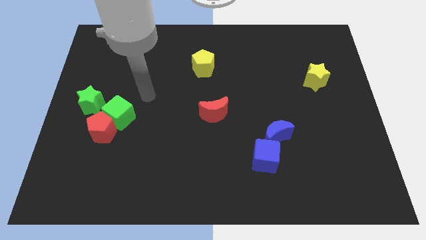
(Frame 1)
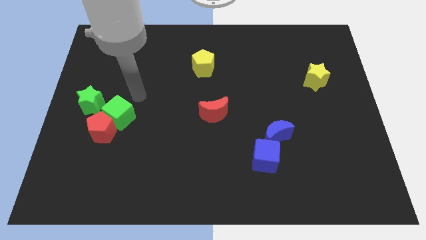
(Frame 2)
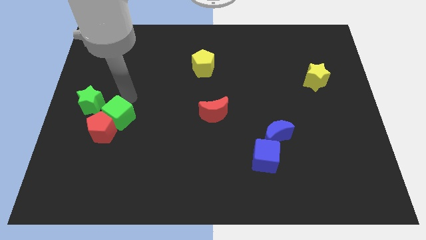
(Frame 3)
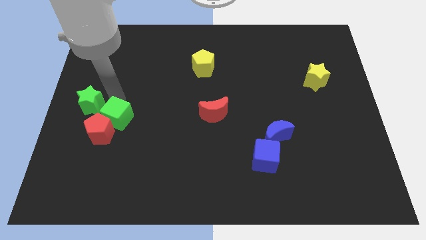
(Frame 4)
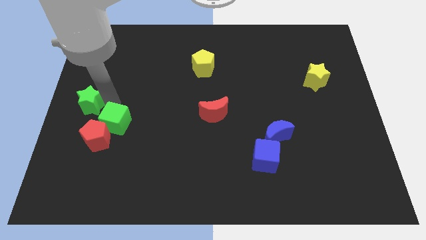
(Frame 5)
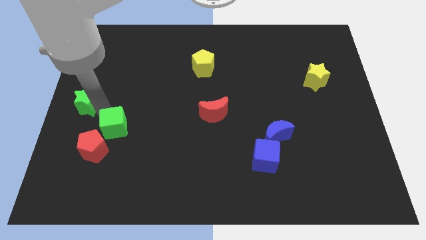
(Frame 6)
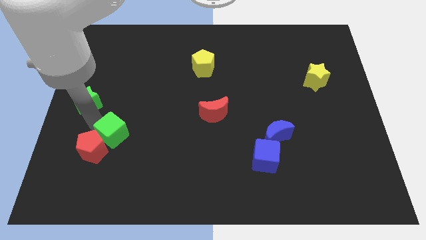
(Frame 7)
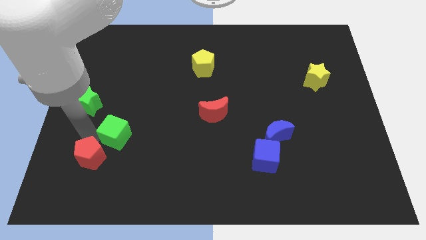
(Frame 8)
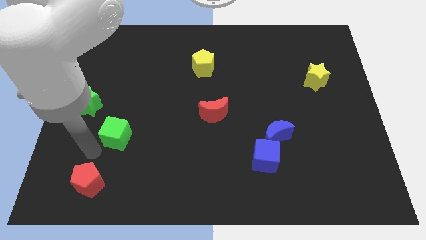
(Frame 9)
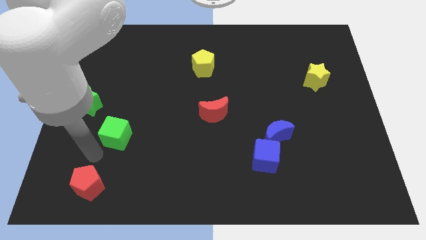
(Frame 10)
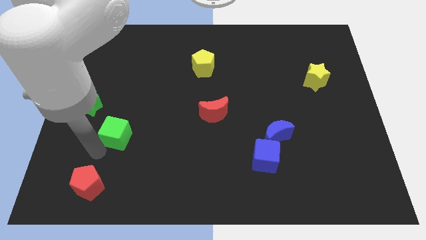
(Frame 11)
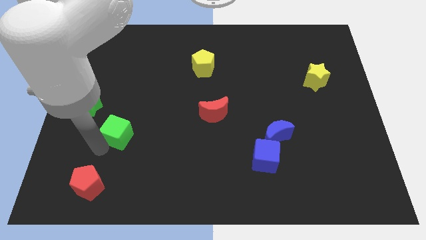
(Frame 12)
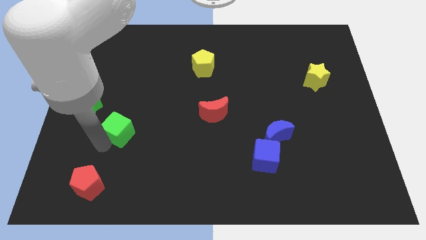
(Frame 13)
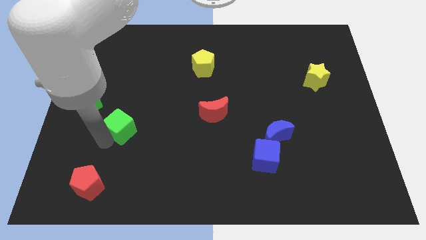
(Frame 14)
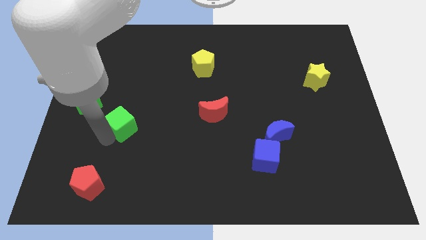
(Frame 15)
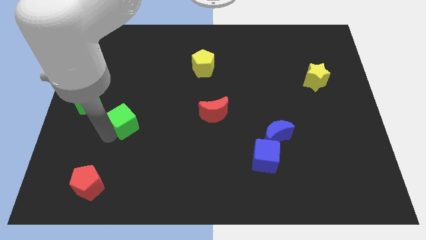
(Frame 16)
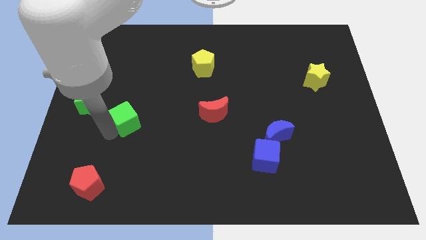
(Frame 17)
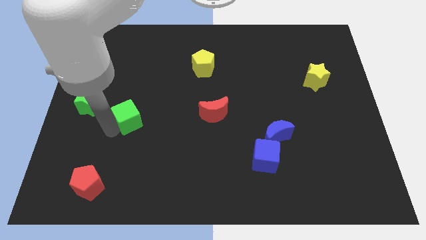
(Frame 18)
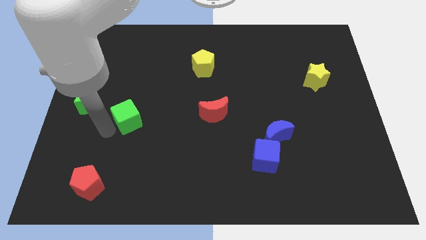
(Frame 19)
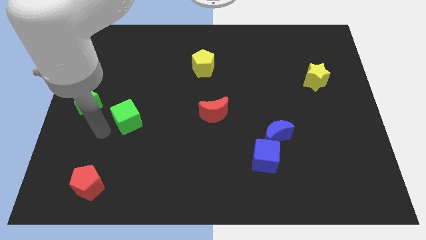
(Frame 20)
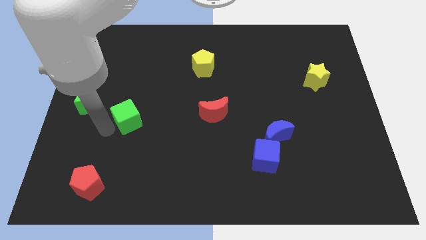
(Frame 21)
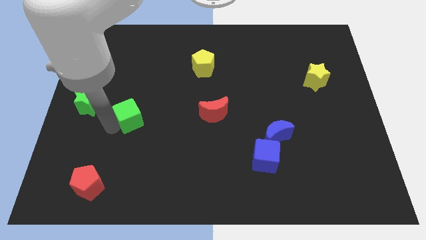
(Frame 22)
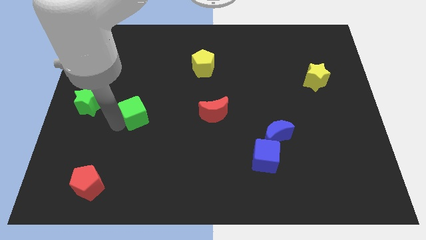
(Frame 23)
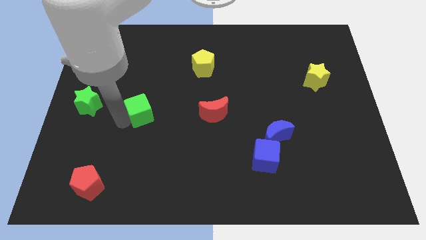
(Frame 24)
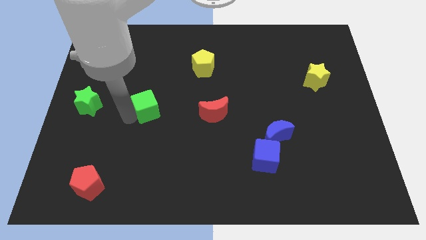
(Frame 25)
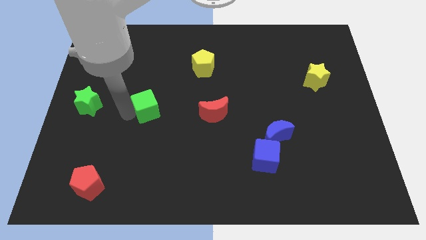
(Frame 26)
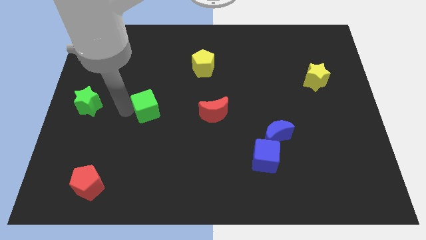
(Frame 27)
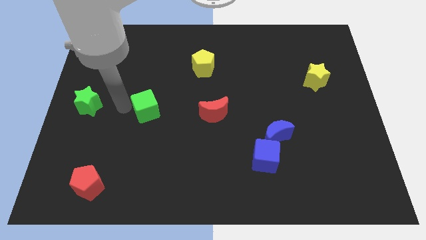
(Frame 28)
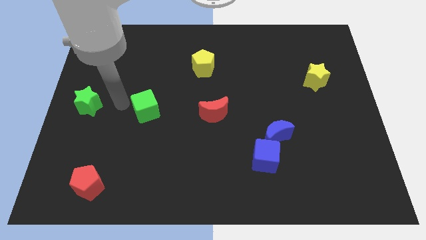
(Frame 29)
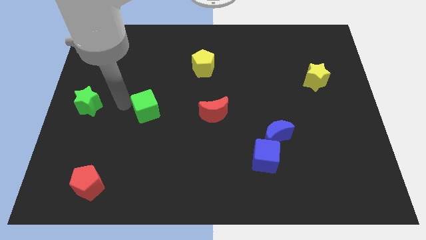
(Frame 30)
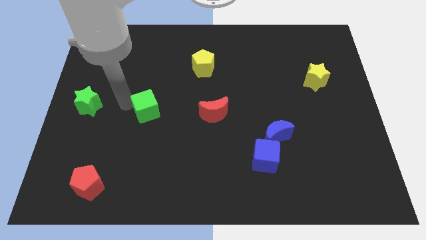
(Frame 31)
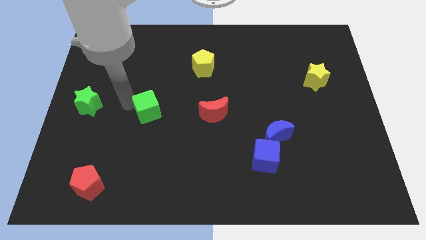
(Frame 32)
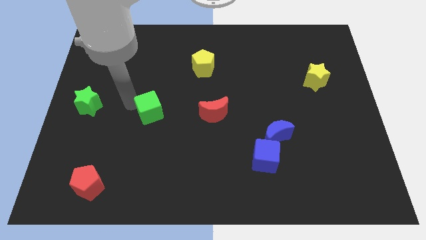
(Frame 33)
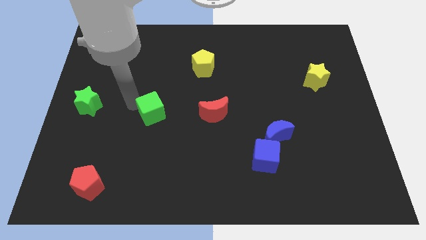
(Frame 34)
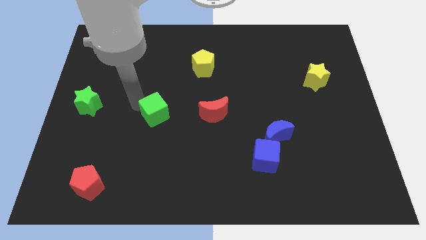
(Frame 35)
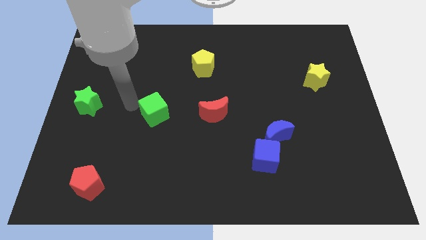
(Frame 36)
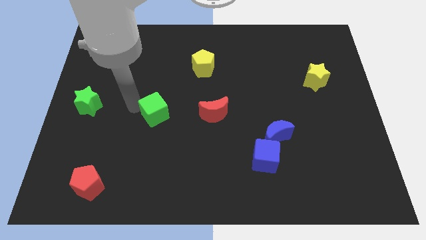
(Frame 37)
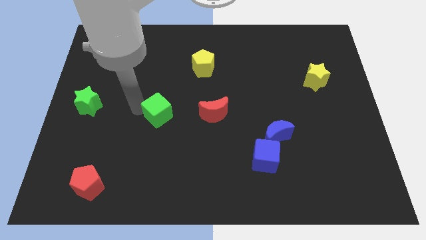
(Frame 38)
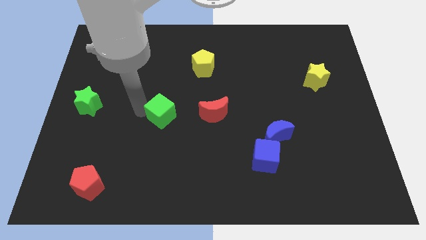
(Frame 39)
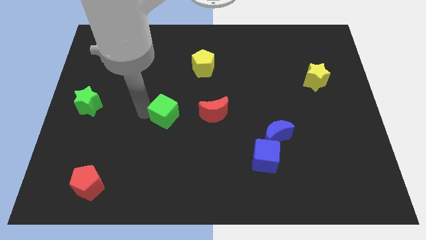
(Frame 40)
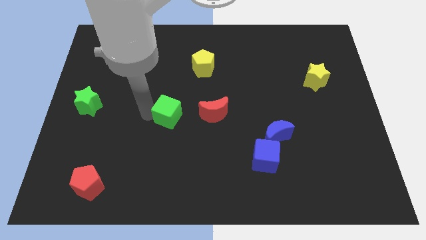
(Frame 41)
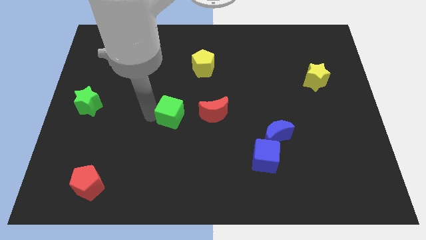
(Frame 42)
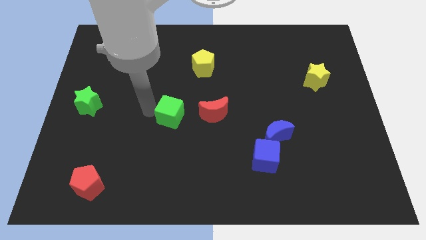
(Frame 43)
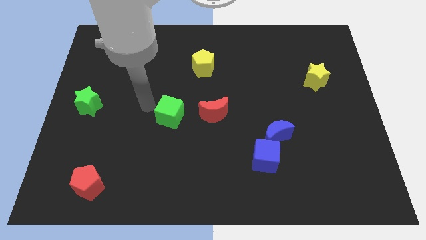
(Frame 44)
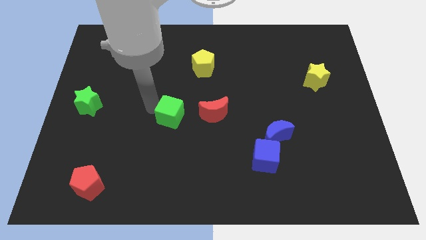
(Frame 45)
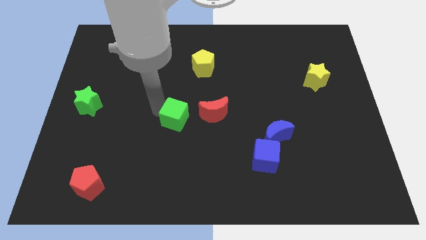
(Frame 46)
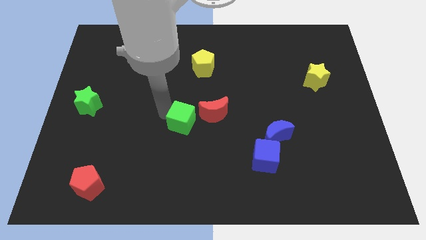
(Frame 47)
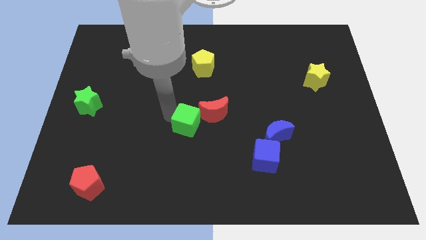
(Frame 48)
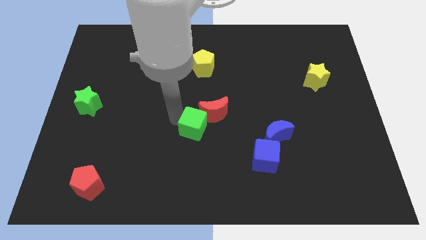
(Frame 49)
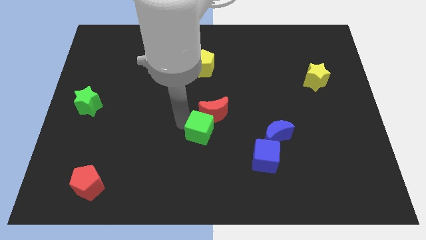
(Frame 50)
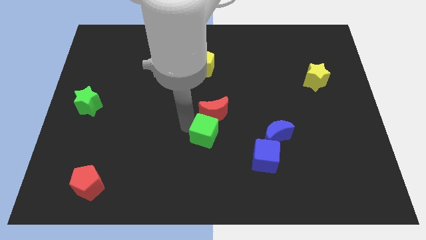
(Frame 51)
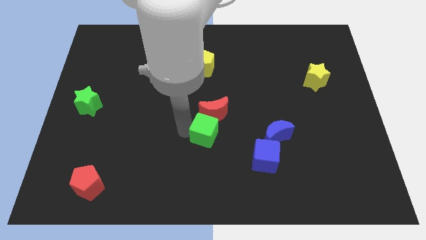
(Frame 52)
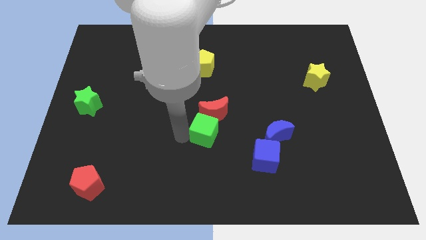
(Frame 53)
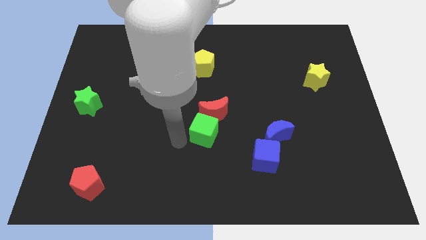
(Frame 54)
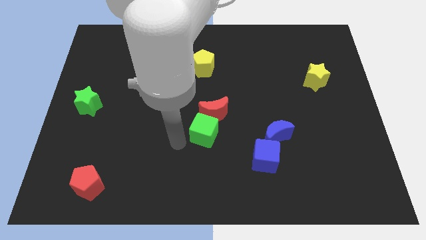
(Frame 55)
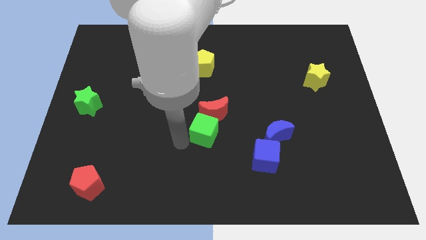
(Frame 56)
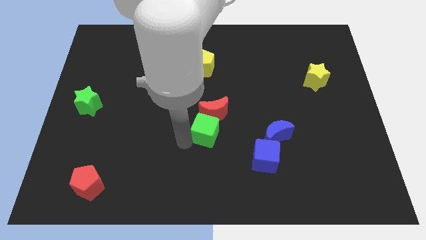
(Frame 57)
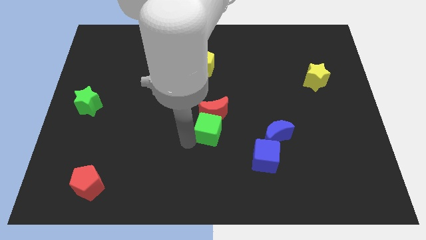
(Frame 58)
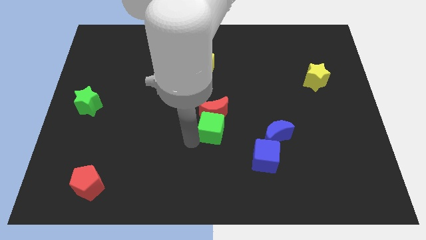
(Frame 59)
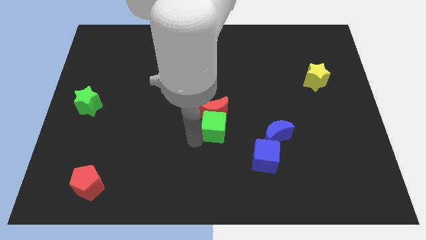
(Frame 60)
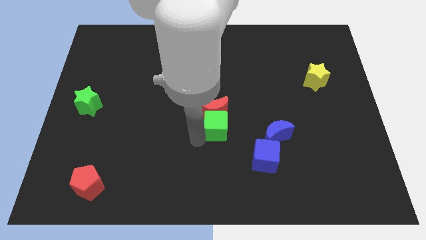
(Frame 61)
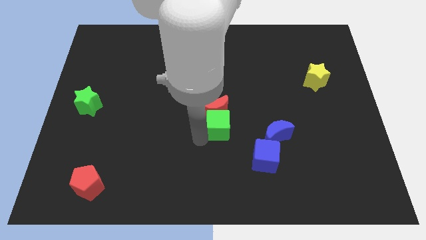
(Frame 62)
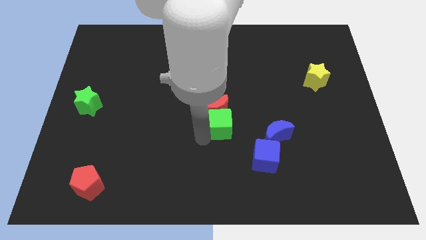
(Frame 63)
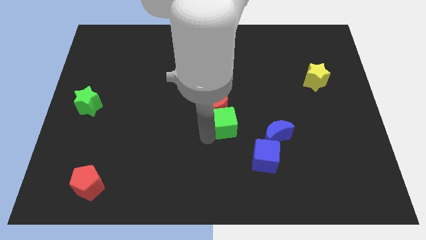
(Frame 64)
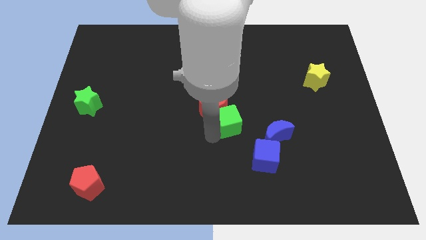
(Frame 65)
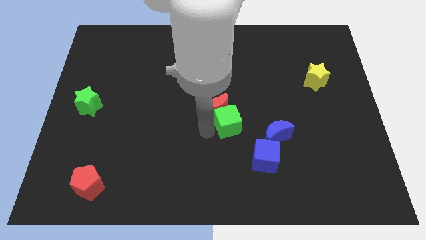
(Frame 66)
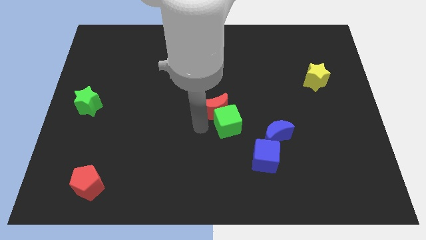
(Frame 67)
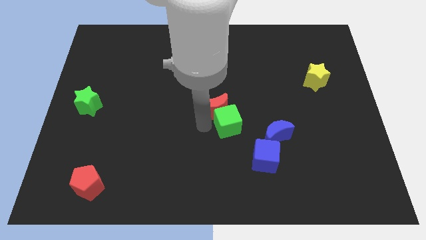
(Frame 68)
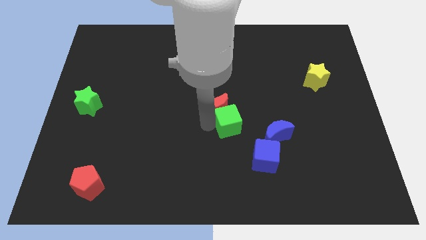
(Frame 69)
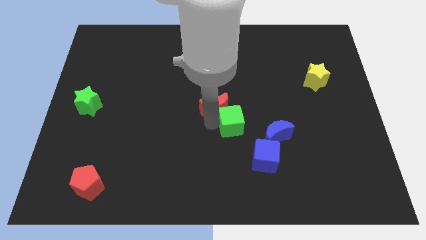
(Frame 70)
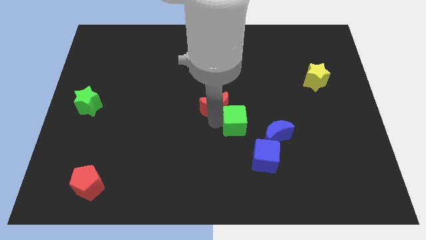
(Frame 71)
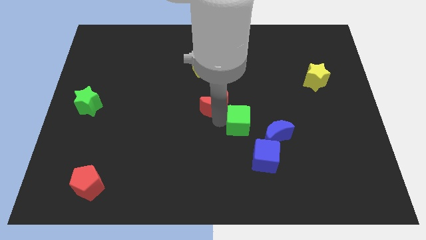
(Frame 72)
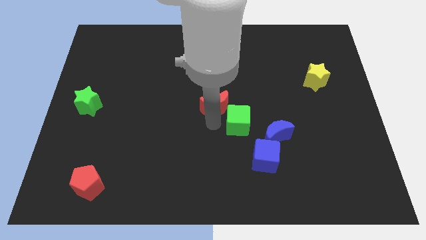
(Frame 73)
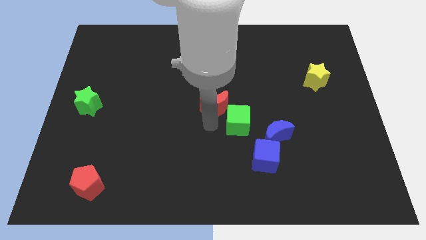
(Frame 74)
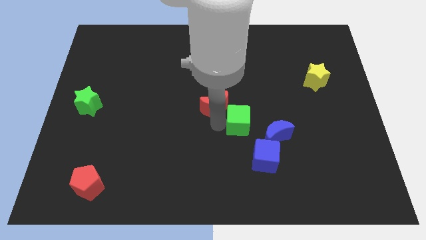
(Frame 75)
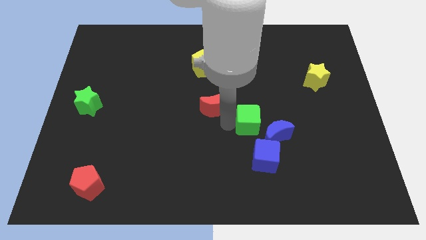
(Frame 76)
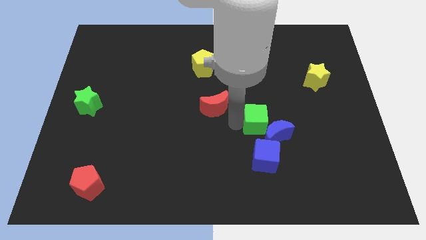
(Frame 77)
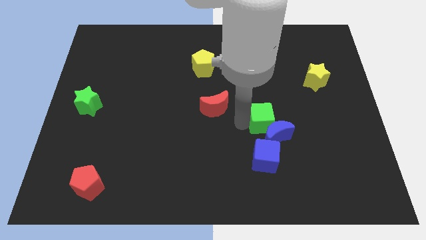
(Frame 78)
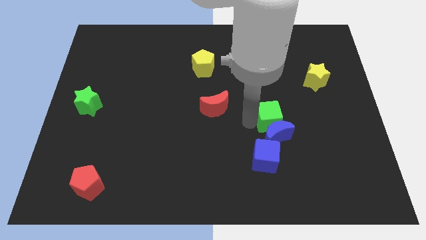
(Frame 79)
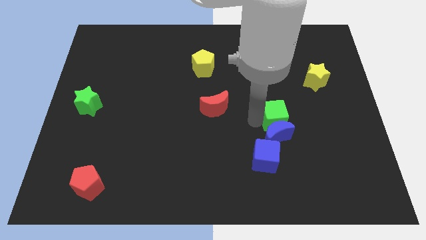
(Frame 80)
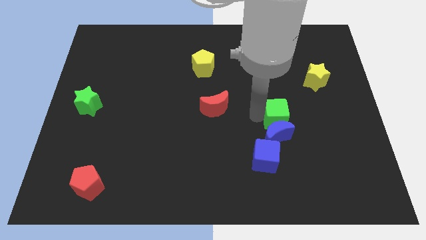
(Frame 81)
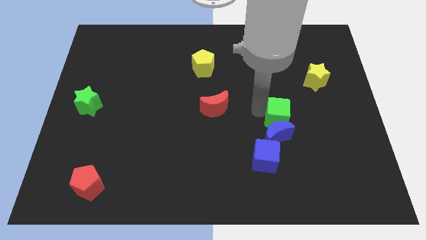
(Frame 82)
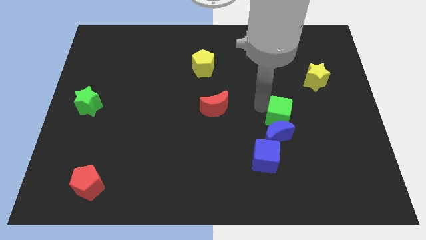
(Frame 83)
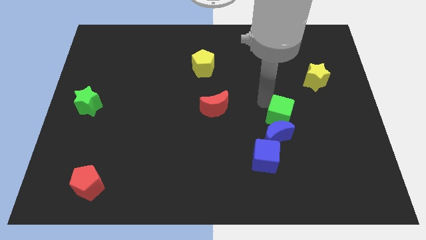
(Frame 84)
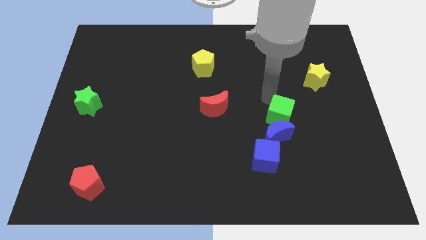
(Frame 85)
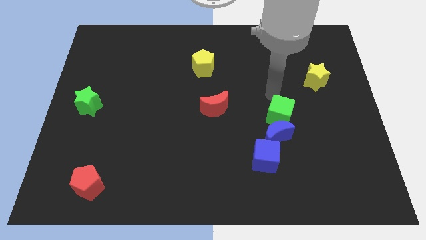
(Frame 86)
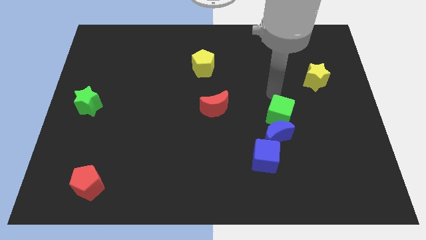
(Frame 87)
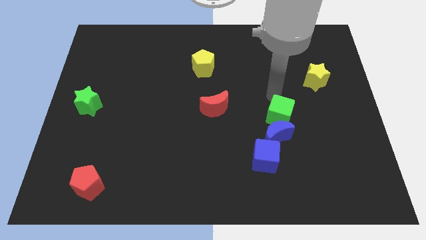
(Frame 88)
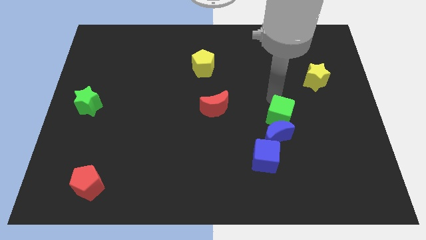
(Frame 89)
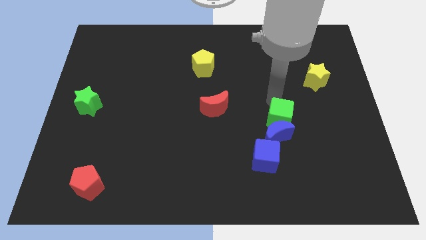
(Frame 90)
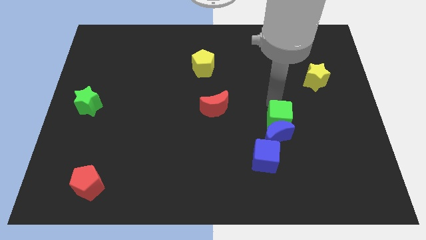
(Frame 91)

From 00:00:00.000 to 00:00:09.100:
move the green cube diagonally up and to the right of the blue cube
